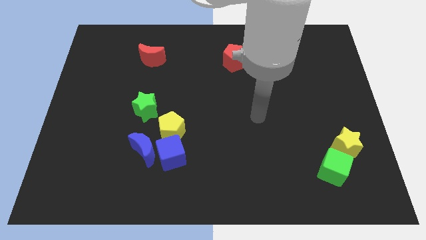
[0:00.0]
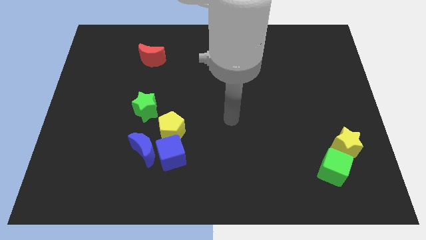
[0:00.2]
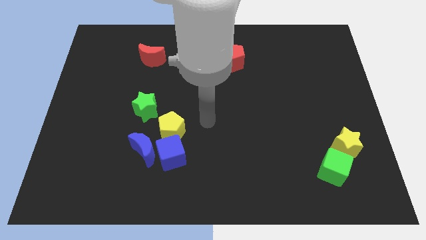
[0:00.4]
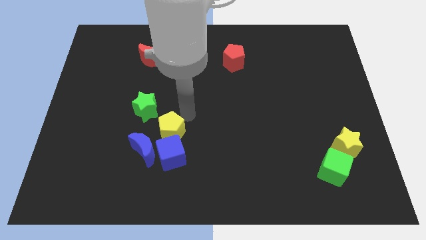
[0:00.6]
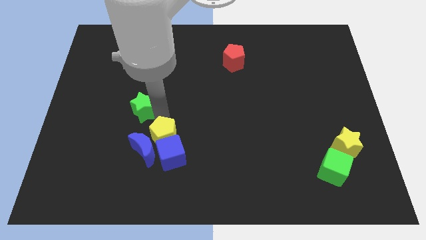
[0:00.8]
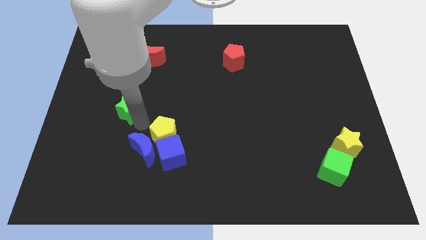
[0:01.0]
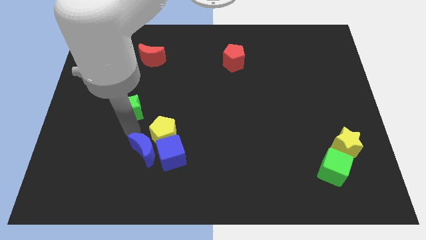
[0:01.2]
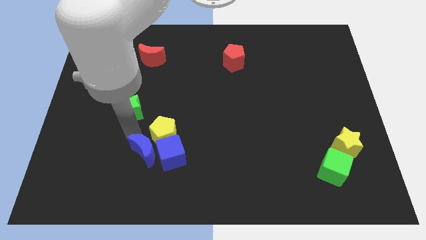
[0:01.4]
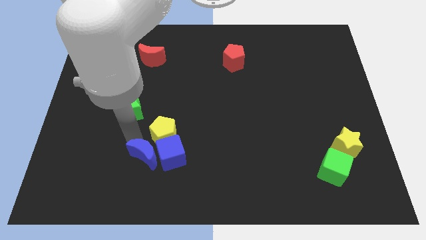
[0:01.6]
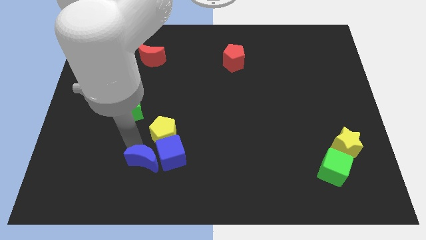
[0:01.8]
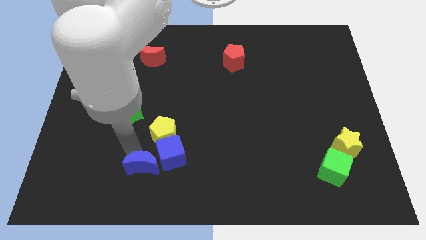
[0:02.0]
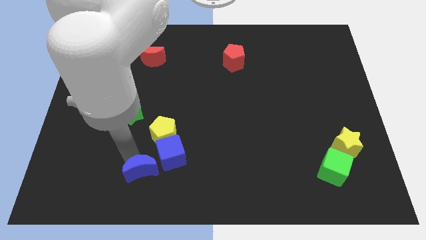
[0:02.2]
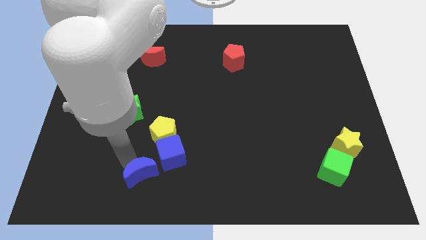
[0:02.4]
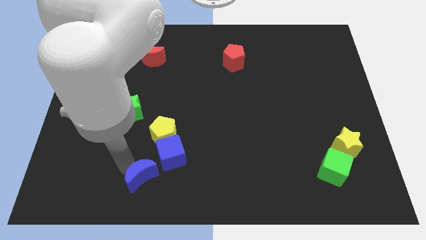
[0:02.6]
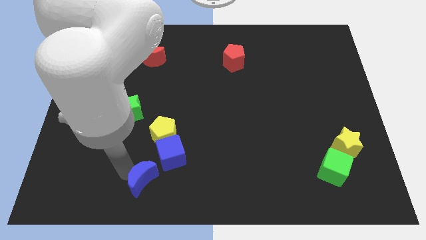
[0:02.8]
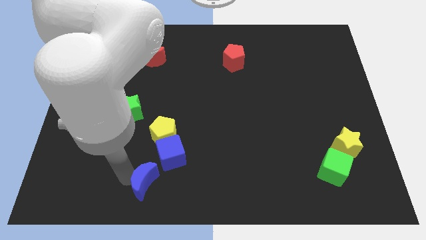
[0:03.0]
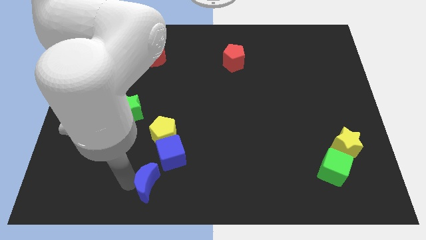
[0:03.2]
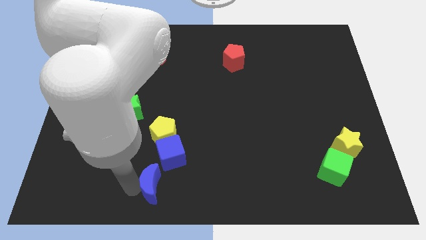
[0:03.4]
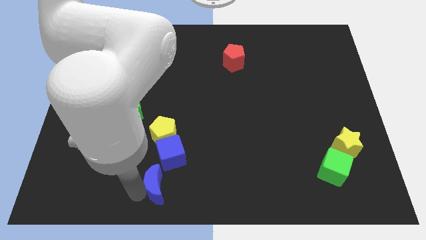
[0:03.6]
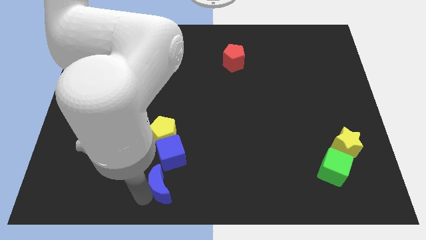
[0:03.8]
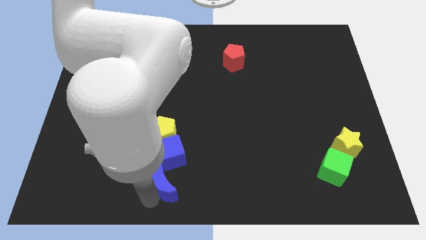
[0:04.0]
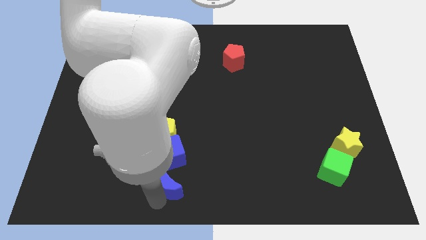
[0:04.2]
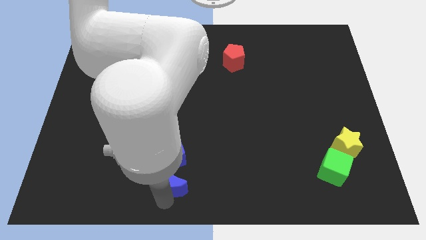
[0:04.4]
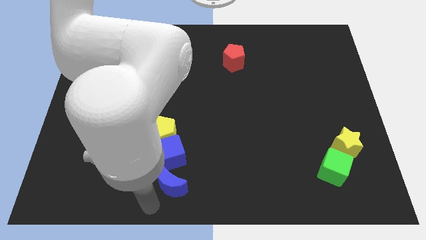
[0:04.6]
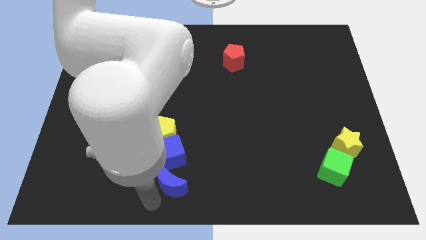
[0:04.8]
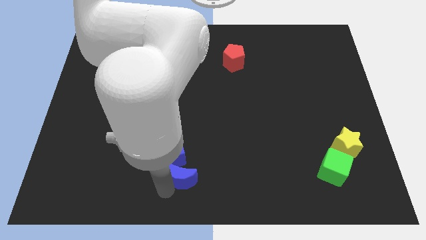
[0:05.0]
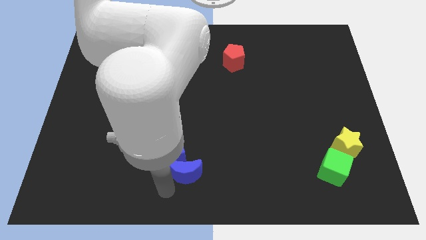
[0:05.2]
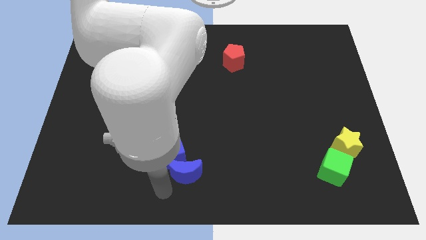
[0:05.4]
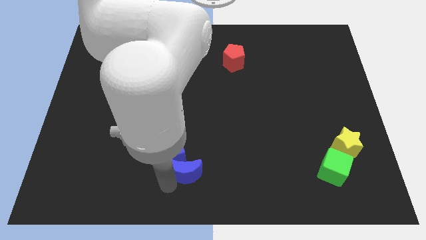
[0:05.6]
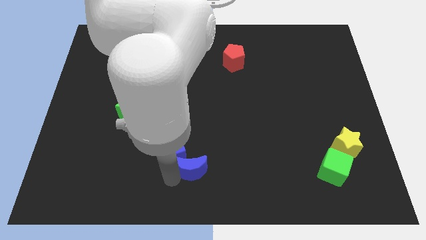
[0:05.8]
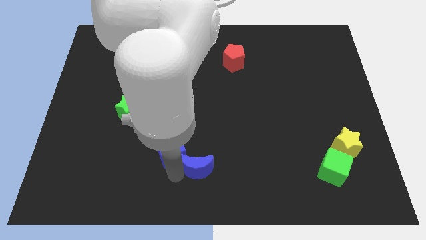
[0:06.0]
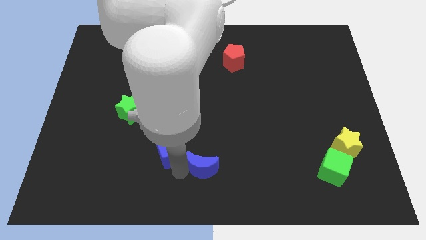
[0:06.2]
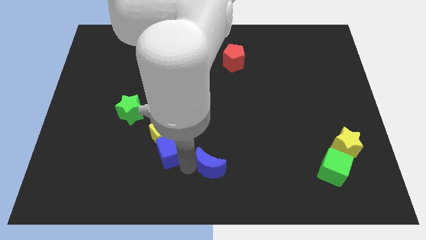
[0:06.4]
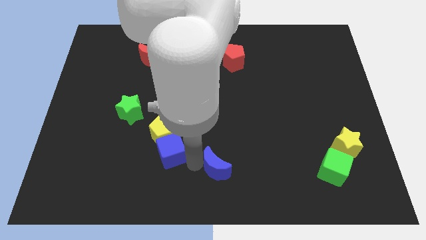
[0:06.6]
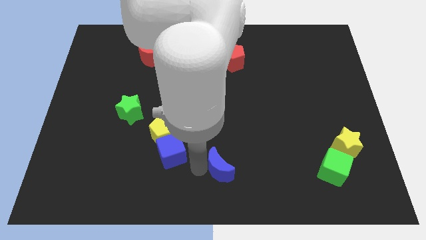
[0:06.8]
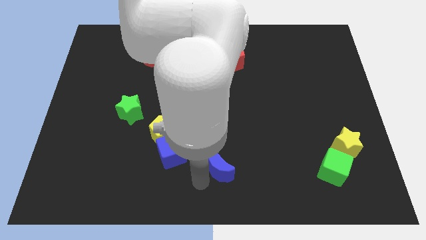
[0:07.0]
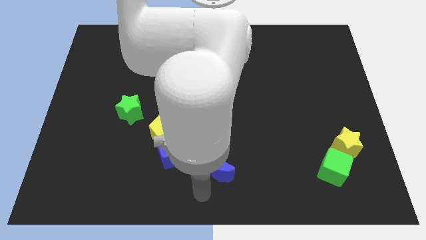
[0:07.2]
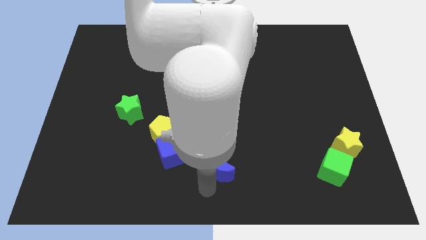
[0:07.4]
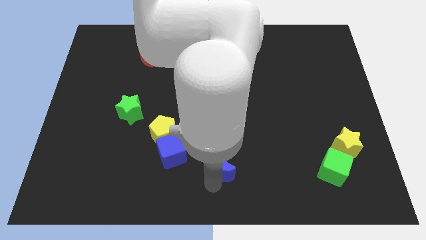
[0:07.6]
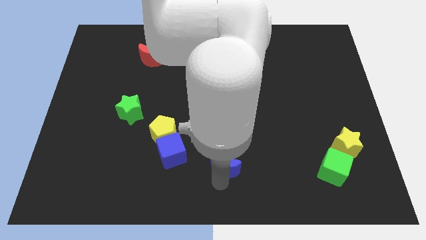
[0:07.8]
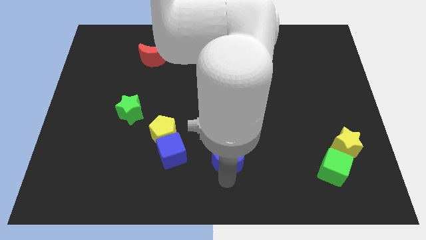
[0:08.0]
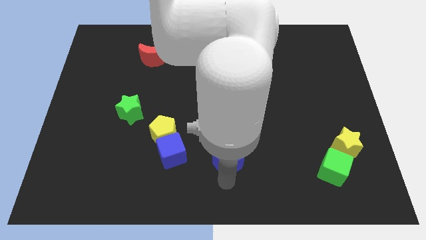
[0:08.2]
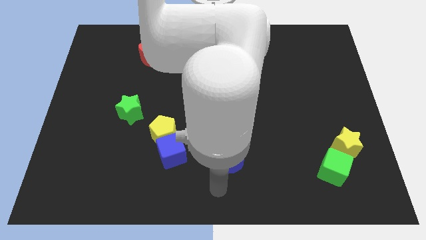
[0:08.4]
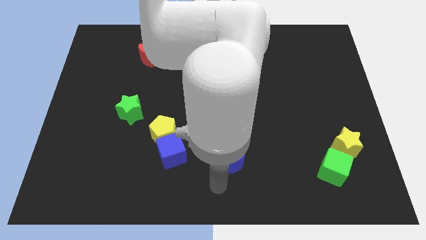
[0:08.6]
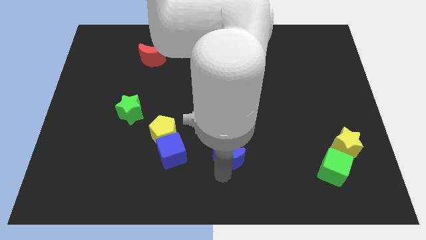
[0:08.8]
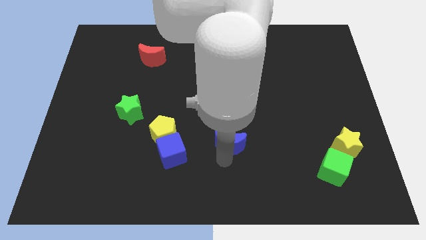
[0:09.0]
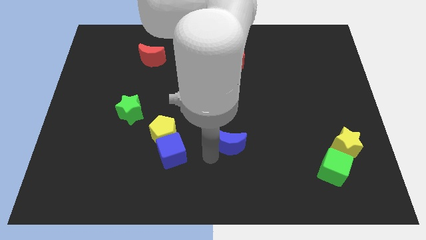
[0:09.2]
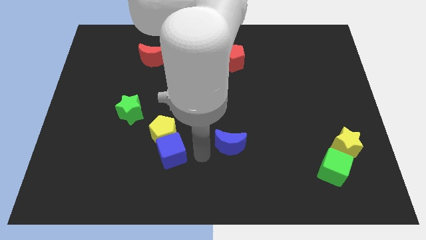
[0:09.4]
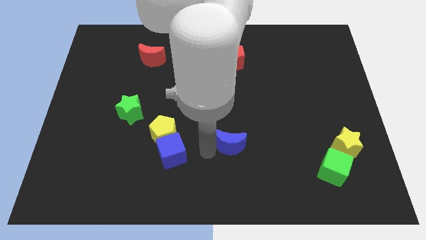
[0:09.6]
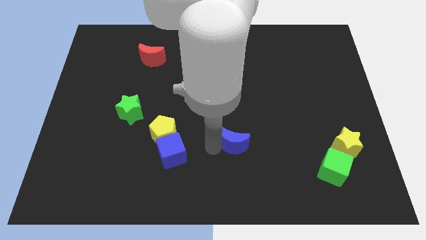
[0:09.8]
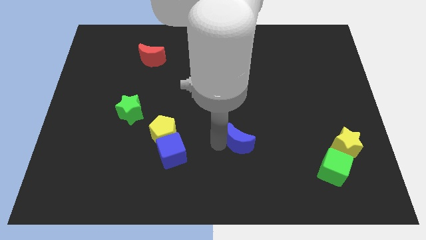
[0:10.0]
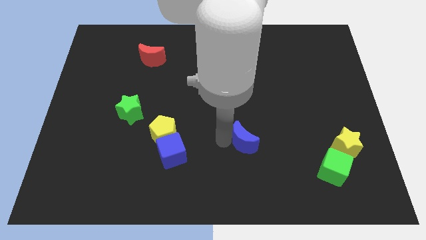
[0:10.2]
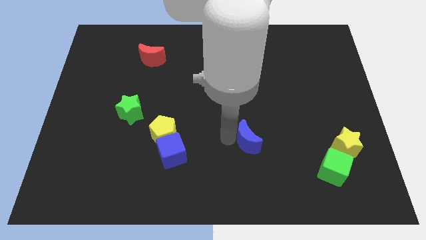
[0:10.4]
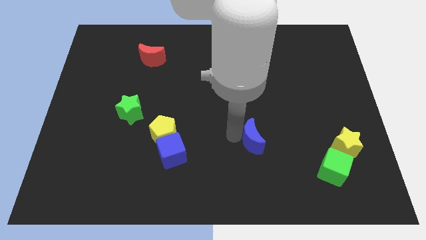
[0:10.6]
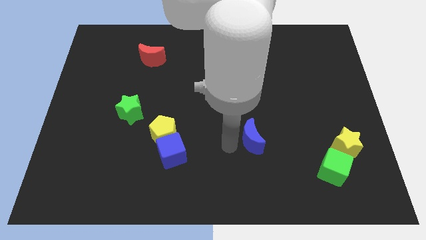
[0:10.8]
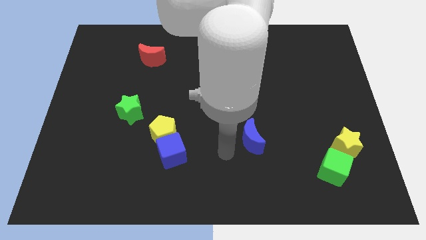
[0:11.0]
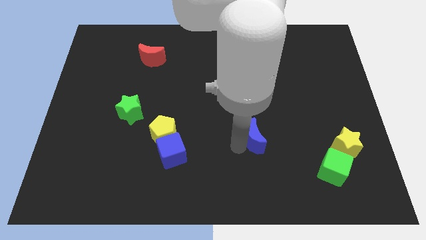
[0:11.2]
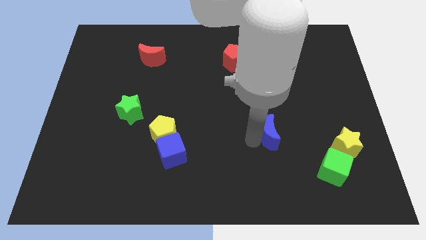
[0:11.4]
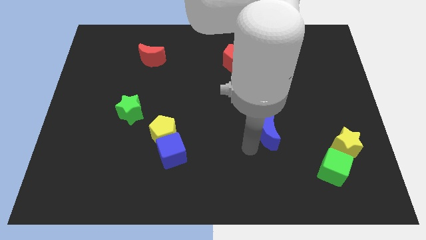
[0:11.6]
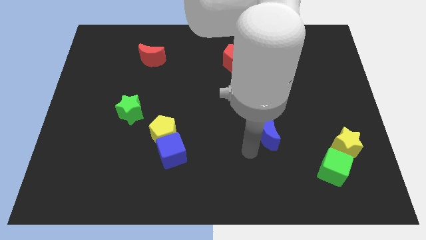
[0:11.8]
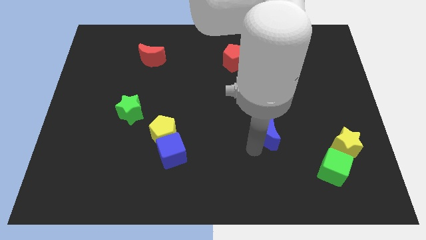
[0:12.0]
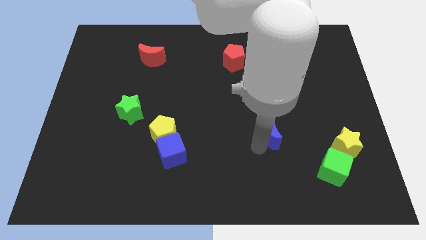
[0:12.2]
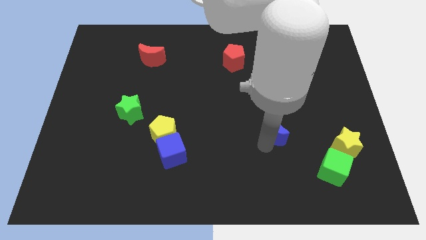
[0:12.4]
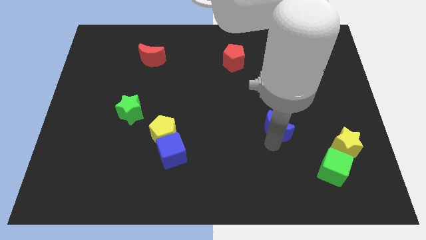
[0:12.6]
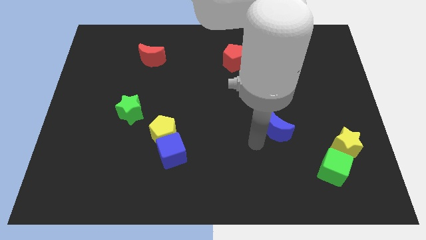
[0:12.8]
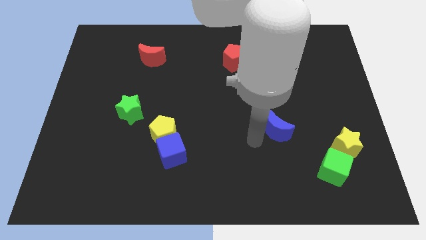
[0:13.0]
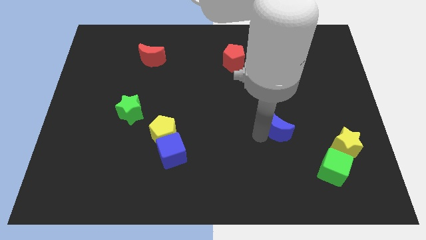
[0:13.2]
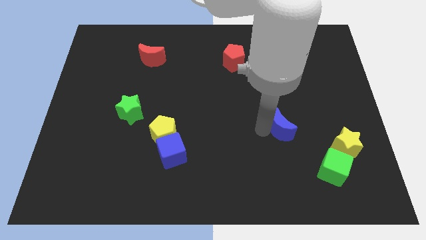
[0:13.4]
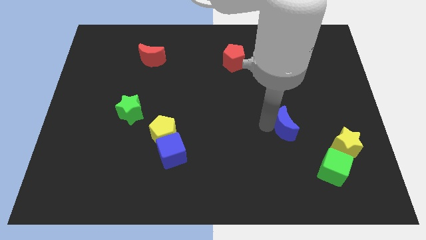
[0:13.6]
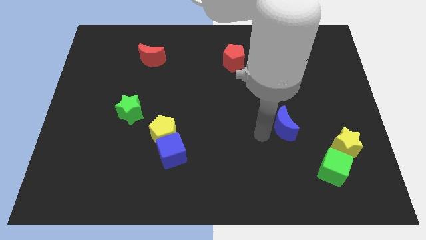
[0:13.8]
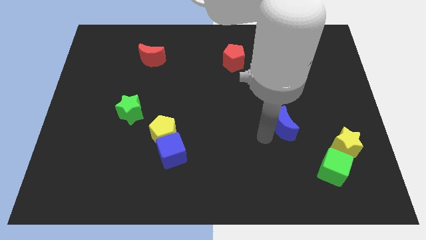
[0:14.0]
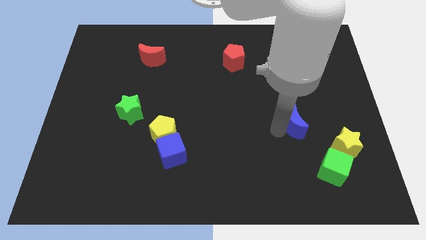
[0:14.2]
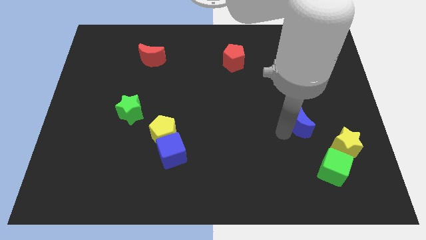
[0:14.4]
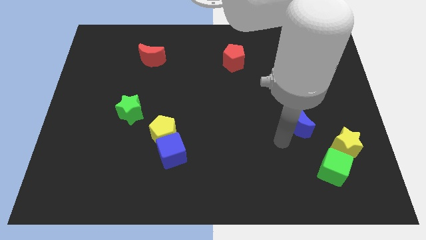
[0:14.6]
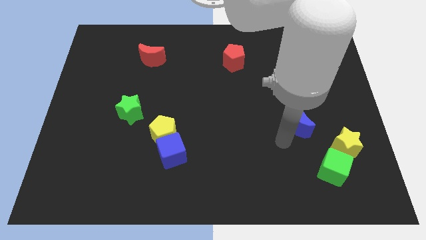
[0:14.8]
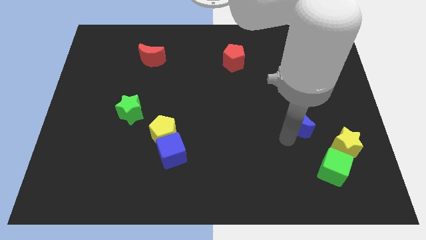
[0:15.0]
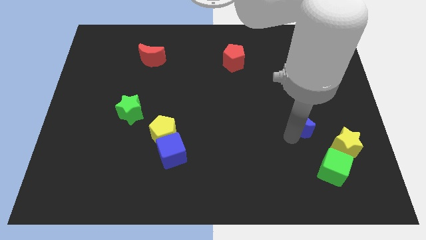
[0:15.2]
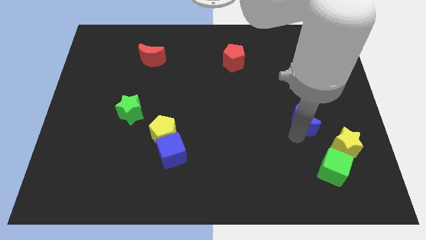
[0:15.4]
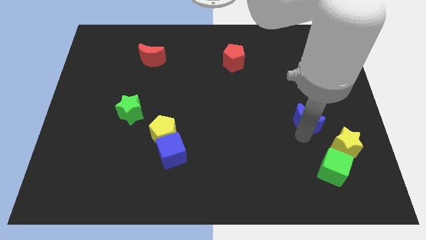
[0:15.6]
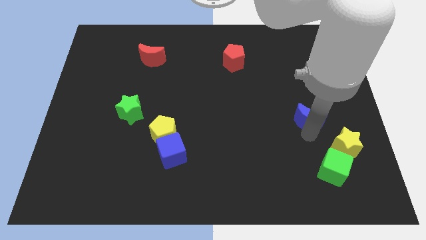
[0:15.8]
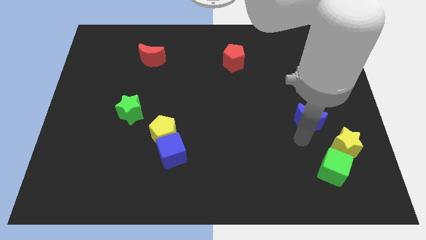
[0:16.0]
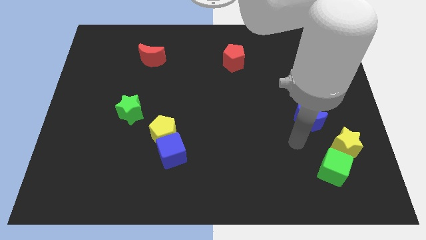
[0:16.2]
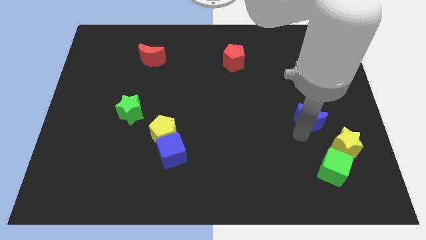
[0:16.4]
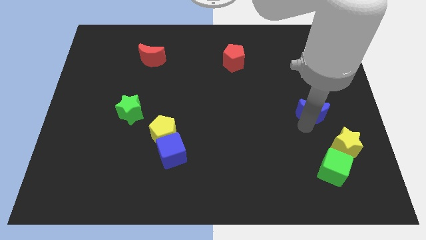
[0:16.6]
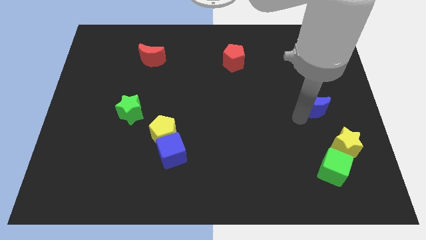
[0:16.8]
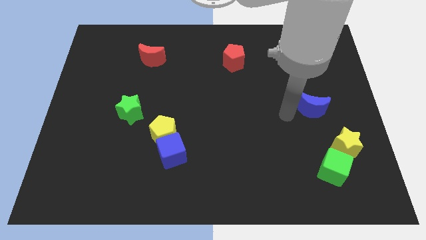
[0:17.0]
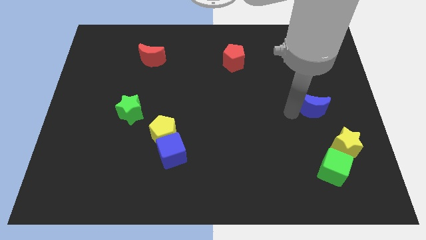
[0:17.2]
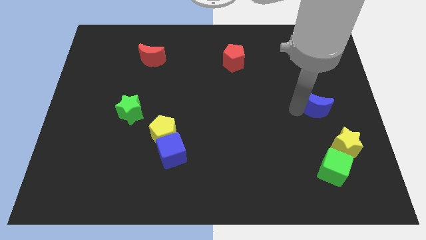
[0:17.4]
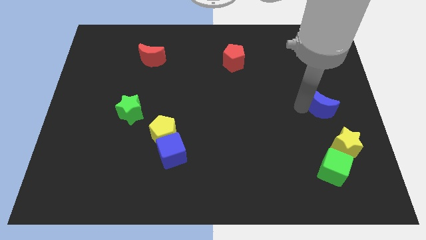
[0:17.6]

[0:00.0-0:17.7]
push the blue moon to the center right
